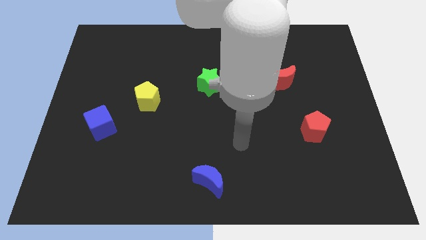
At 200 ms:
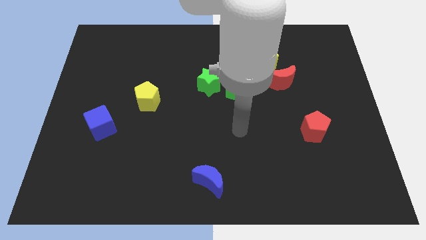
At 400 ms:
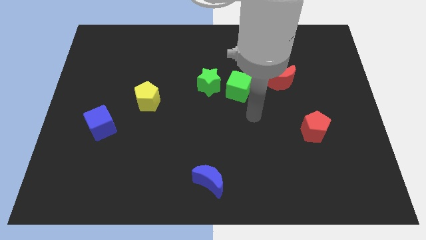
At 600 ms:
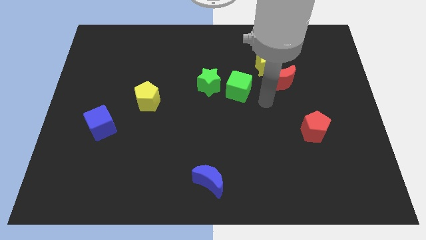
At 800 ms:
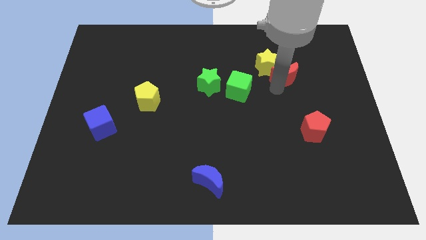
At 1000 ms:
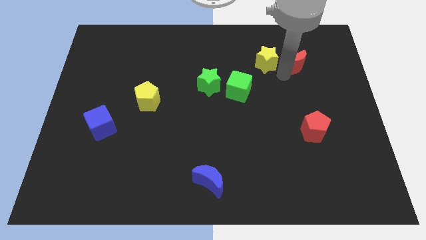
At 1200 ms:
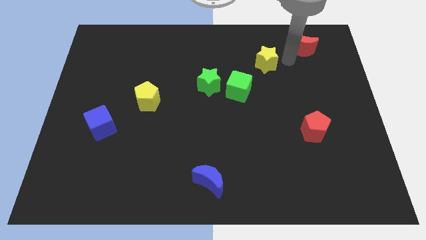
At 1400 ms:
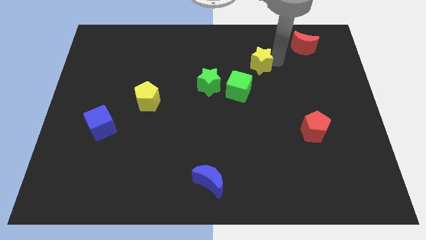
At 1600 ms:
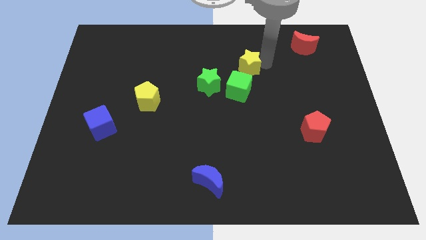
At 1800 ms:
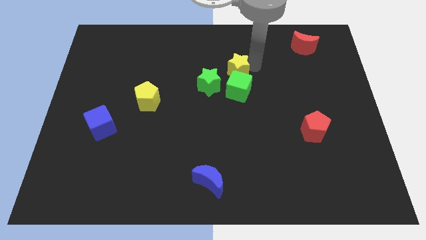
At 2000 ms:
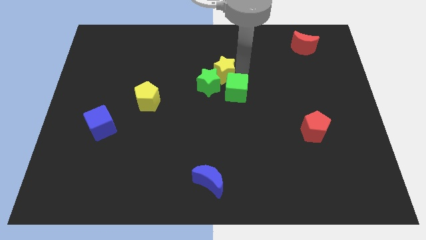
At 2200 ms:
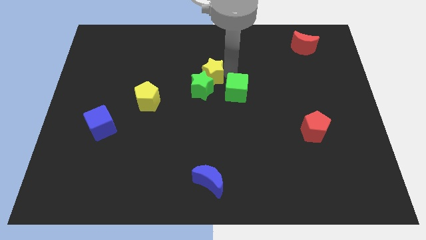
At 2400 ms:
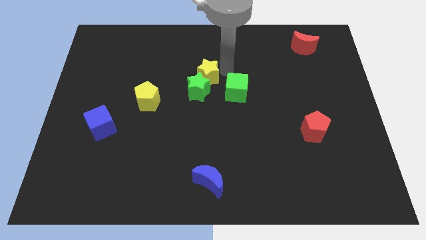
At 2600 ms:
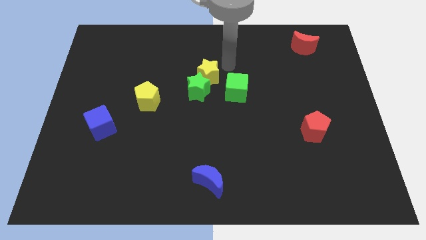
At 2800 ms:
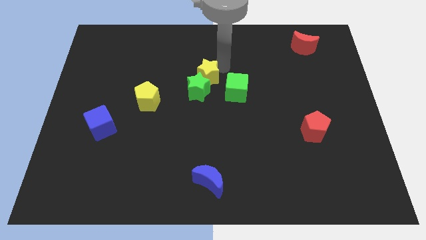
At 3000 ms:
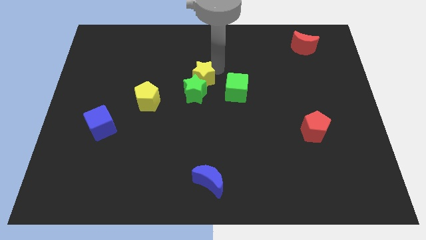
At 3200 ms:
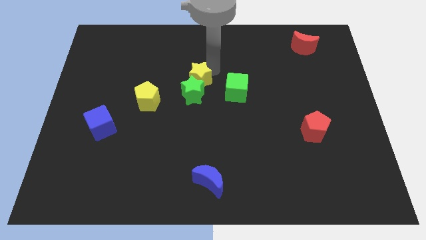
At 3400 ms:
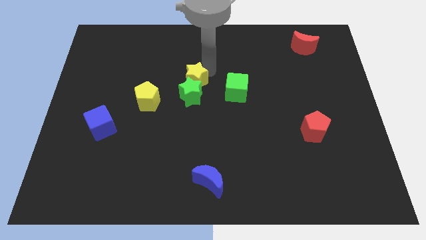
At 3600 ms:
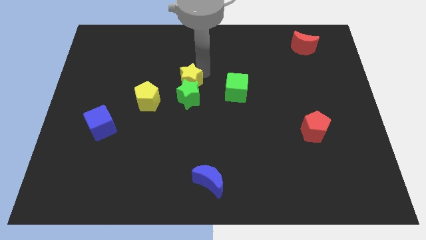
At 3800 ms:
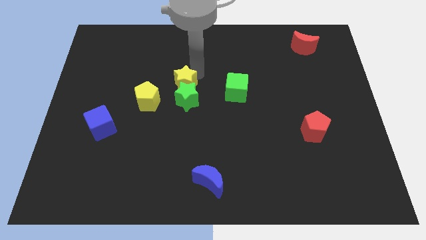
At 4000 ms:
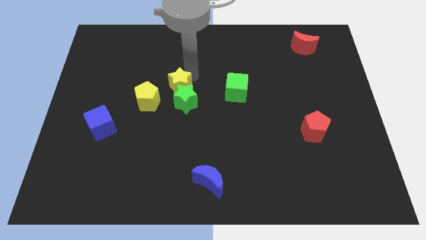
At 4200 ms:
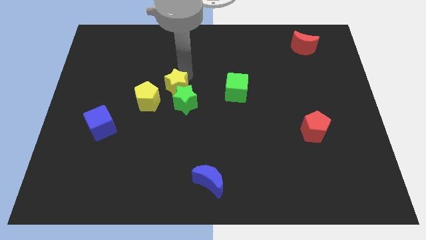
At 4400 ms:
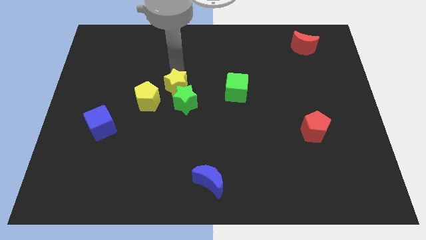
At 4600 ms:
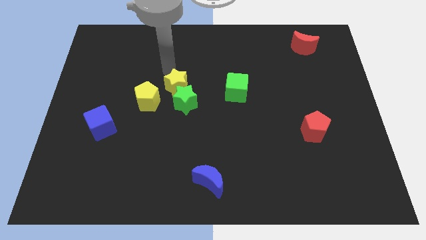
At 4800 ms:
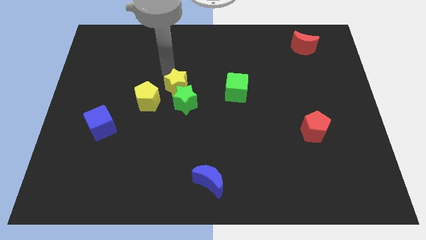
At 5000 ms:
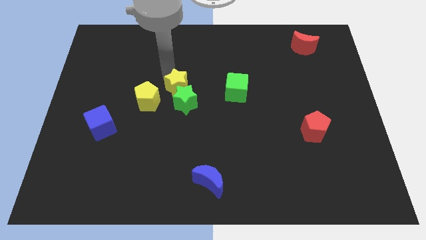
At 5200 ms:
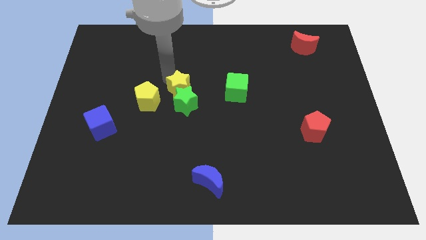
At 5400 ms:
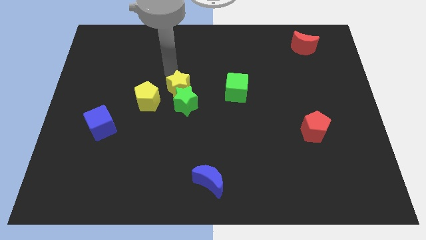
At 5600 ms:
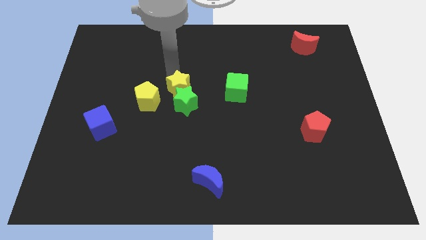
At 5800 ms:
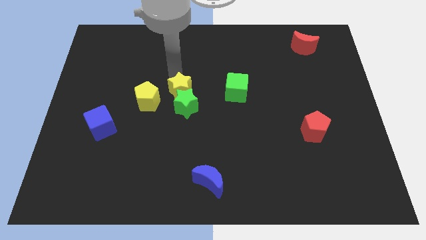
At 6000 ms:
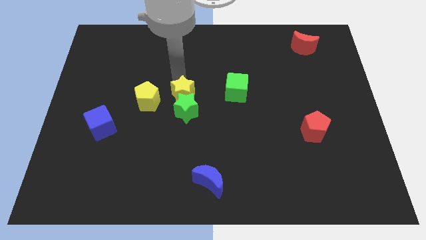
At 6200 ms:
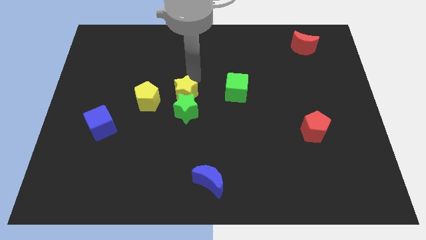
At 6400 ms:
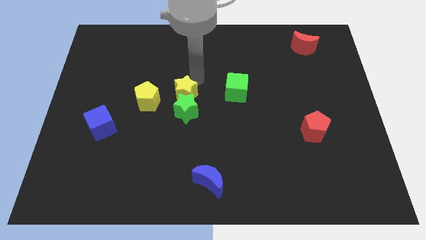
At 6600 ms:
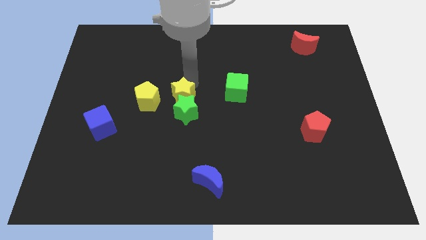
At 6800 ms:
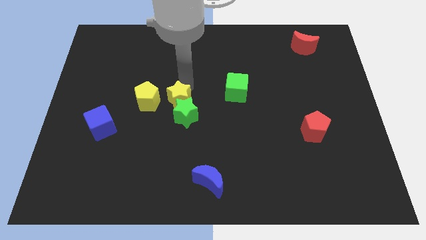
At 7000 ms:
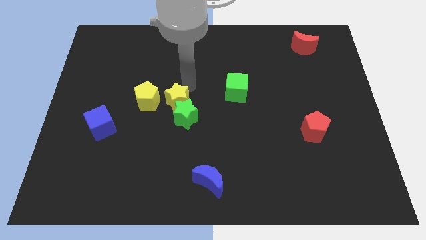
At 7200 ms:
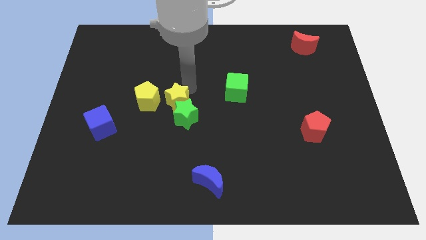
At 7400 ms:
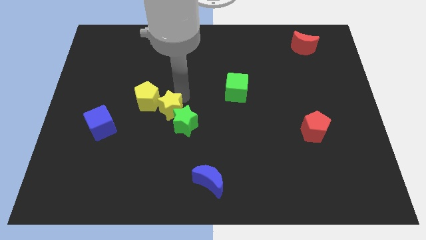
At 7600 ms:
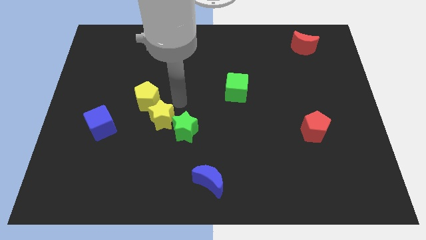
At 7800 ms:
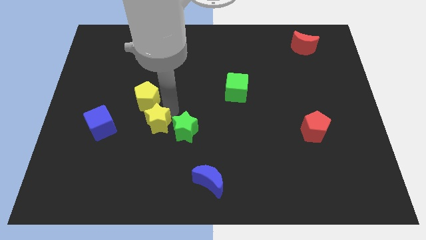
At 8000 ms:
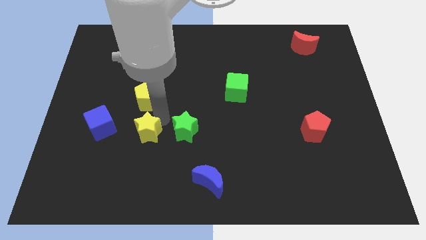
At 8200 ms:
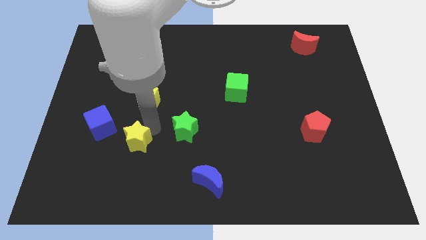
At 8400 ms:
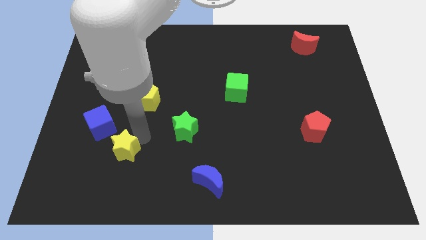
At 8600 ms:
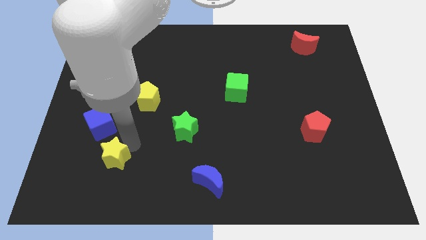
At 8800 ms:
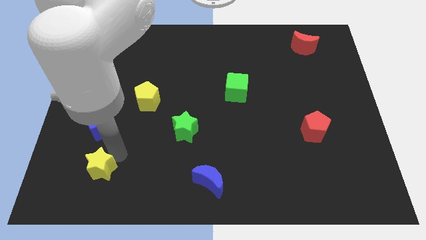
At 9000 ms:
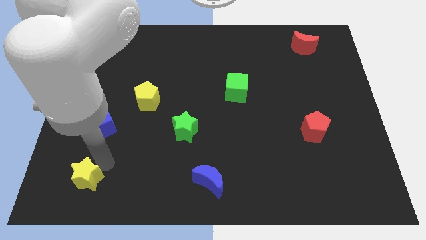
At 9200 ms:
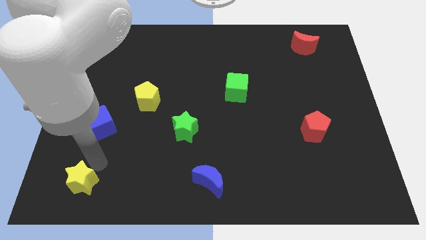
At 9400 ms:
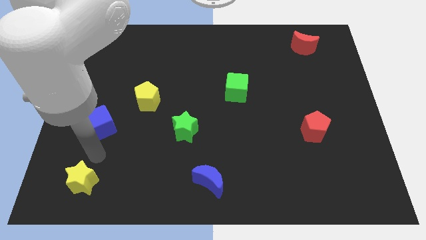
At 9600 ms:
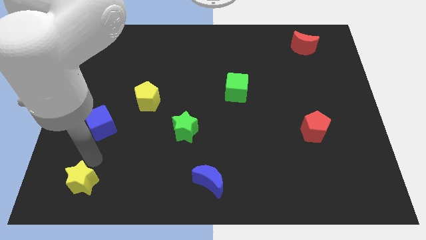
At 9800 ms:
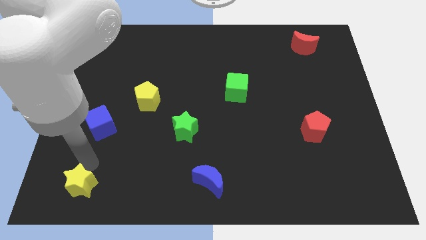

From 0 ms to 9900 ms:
slide the yellow star to the bottom left corner

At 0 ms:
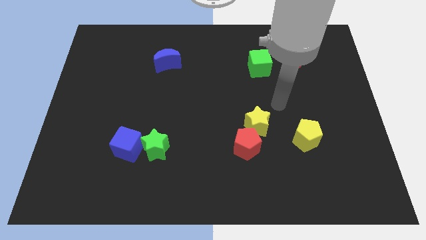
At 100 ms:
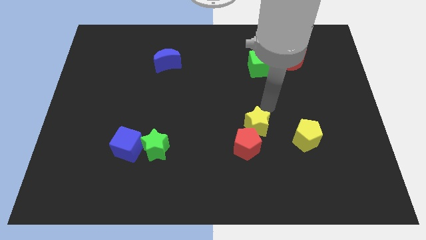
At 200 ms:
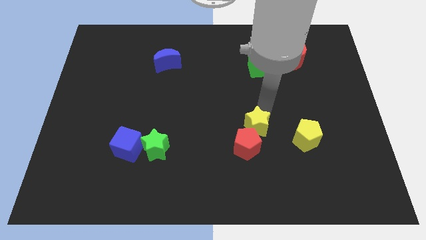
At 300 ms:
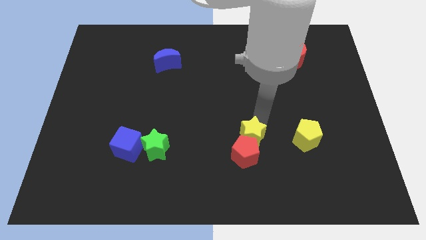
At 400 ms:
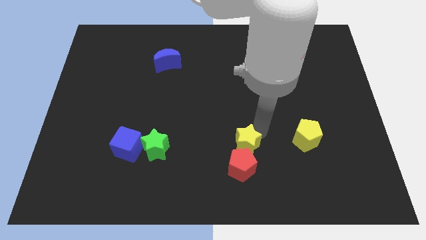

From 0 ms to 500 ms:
slide the red pentagon to the bottom
